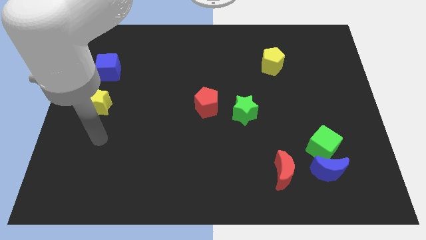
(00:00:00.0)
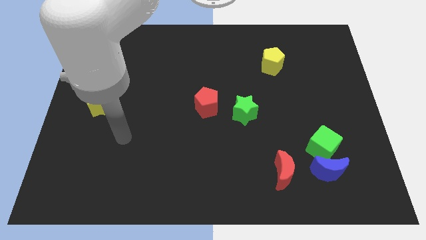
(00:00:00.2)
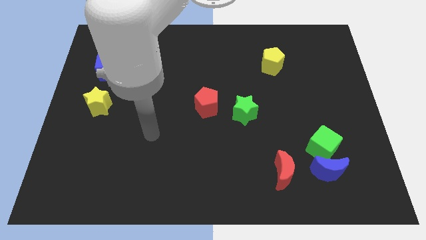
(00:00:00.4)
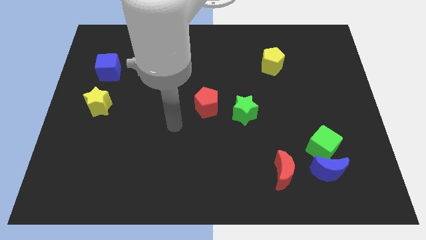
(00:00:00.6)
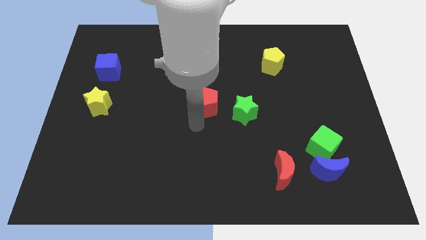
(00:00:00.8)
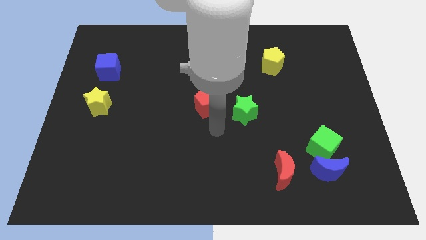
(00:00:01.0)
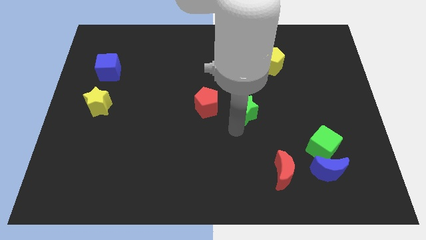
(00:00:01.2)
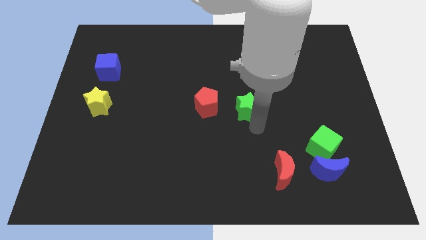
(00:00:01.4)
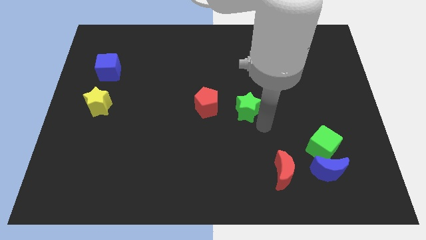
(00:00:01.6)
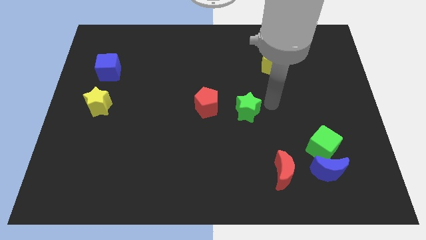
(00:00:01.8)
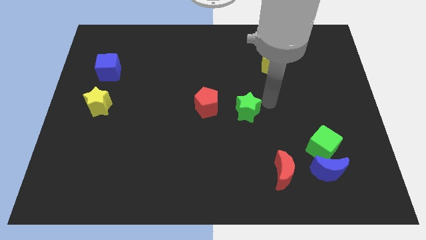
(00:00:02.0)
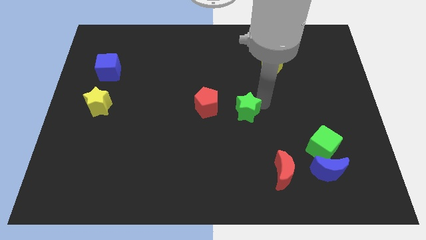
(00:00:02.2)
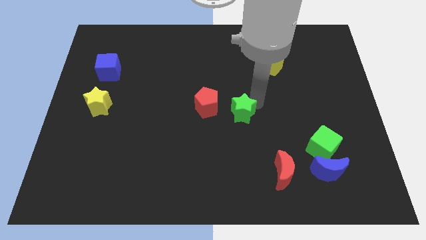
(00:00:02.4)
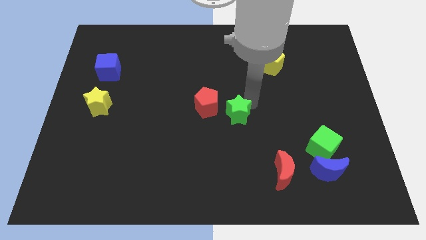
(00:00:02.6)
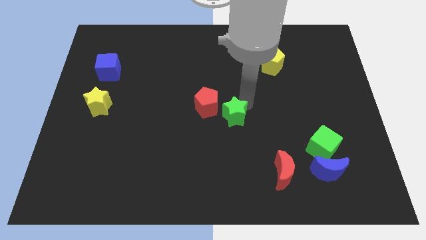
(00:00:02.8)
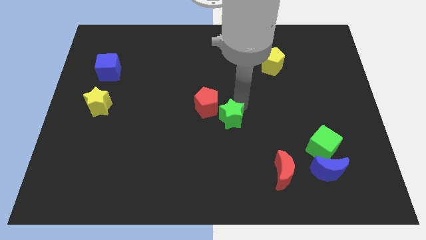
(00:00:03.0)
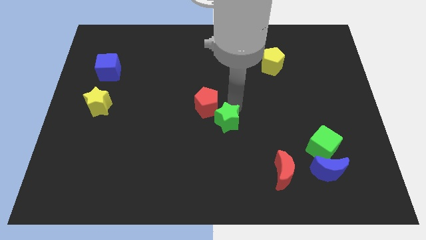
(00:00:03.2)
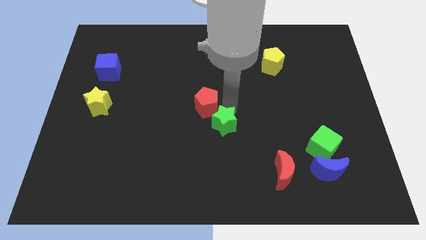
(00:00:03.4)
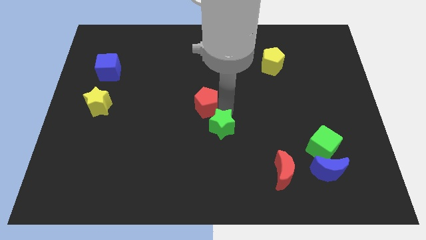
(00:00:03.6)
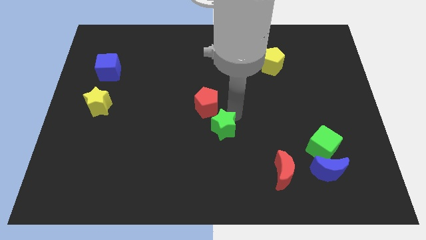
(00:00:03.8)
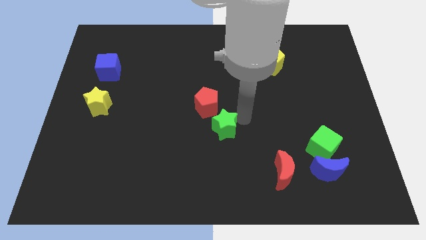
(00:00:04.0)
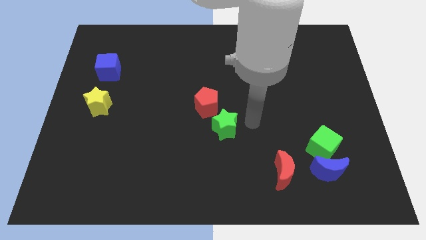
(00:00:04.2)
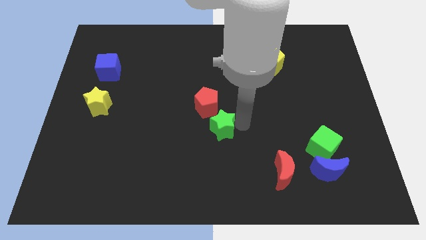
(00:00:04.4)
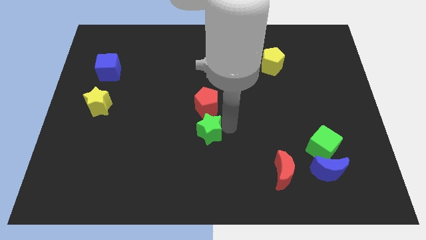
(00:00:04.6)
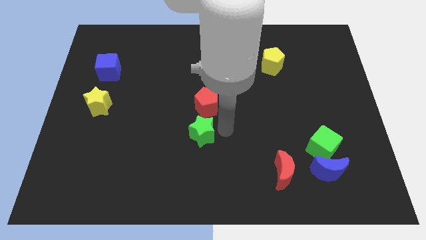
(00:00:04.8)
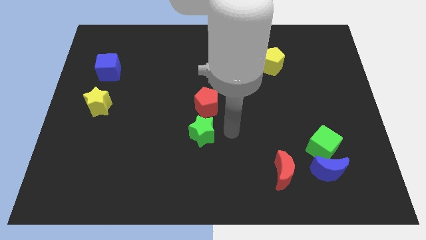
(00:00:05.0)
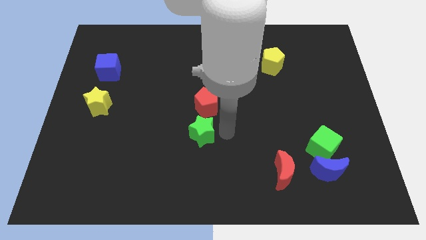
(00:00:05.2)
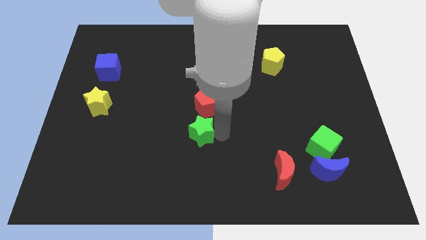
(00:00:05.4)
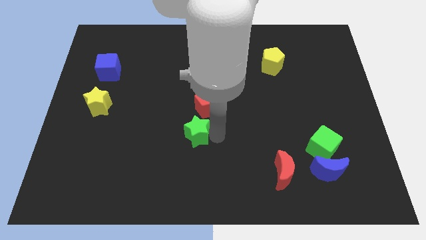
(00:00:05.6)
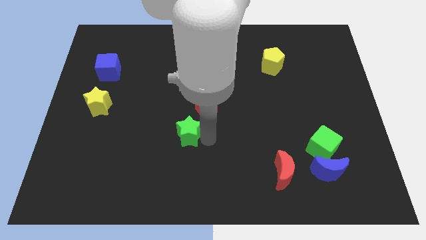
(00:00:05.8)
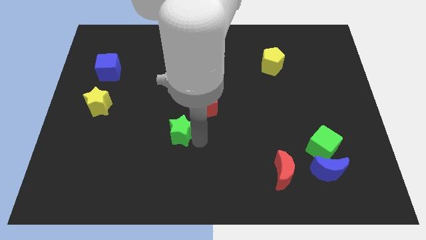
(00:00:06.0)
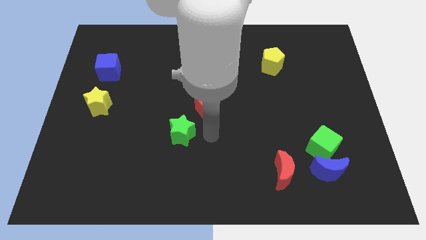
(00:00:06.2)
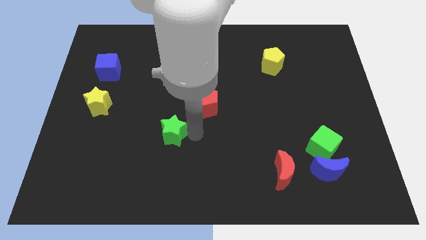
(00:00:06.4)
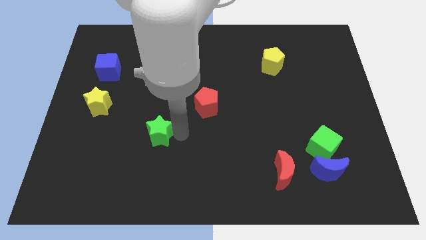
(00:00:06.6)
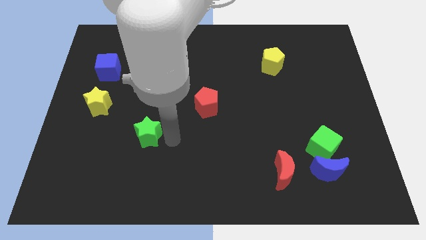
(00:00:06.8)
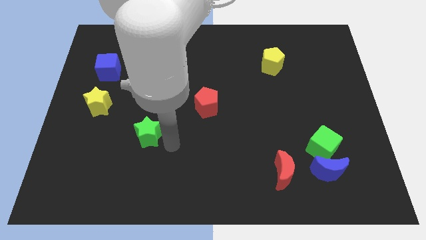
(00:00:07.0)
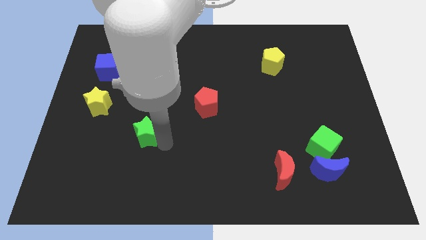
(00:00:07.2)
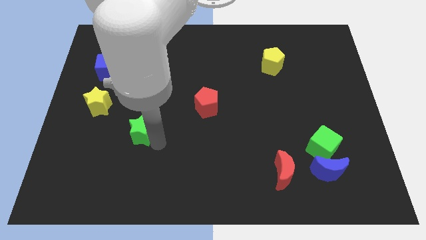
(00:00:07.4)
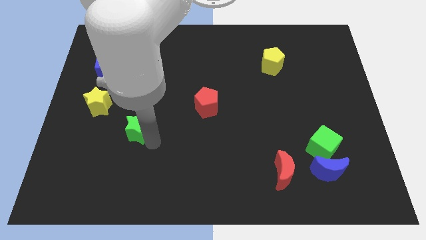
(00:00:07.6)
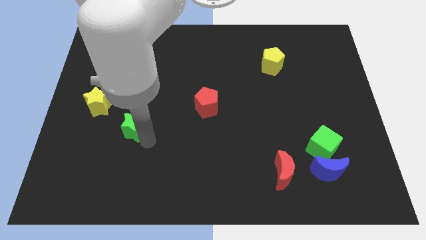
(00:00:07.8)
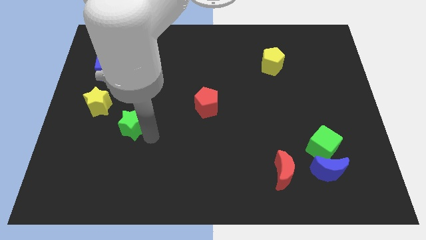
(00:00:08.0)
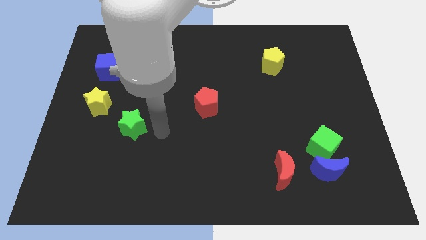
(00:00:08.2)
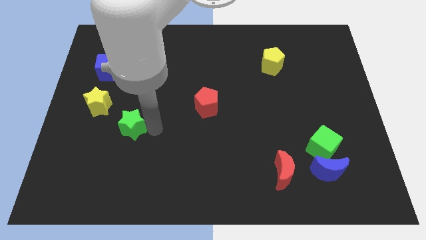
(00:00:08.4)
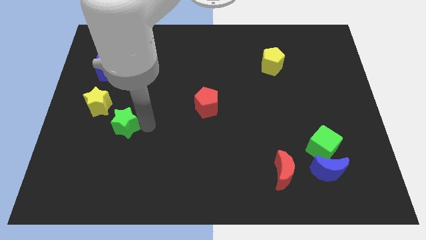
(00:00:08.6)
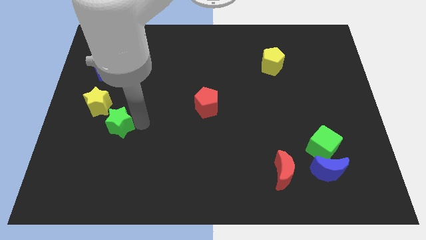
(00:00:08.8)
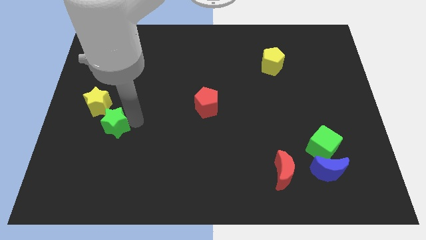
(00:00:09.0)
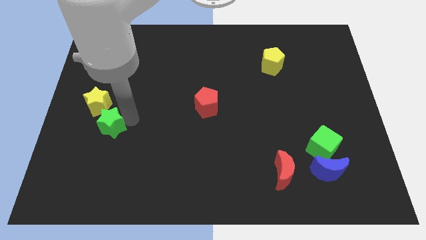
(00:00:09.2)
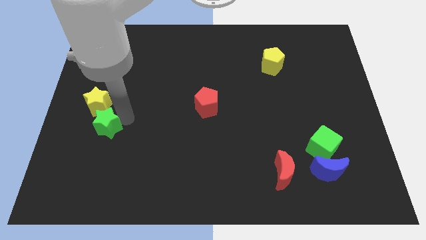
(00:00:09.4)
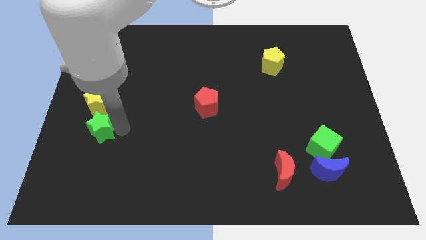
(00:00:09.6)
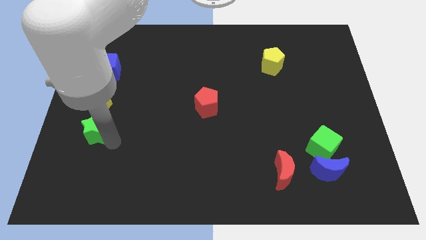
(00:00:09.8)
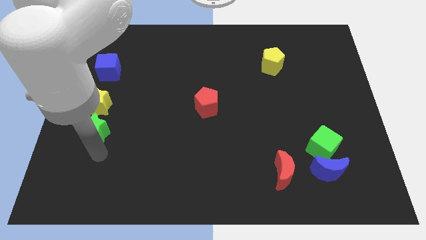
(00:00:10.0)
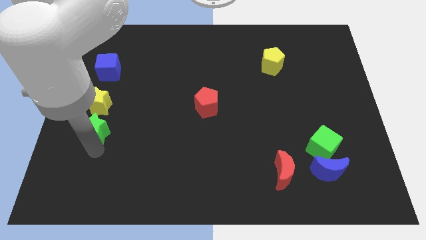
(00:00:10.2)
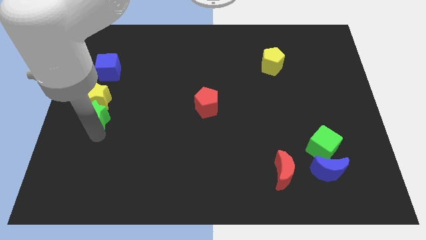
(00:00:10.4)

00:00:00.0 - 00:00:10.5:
push the green star below the blue cube

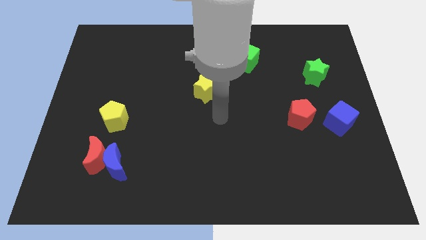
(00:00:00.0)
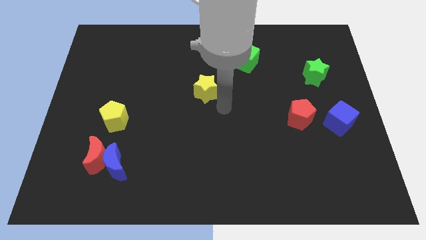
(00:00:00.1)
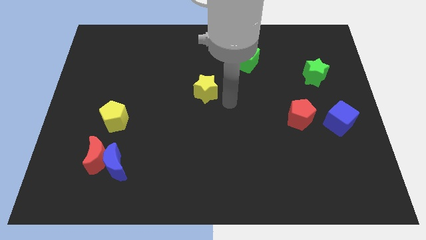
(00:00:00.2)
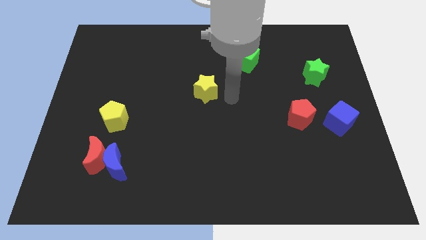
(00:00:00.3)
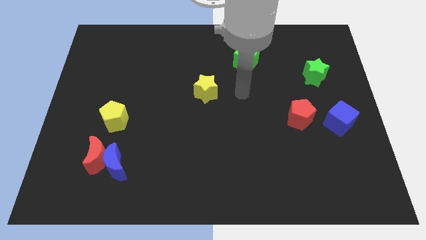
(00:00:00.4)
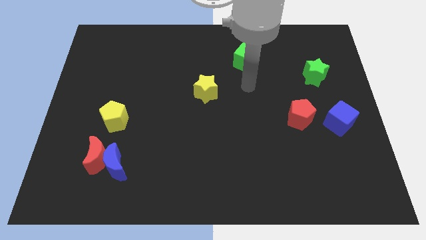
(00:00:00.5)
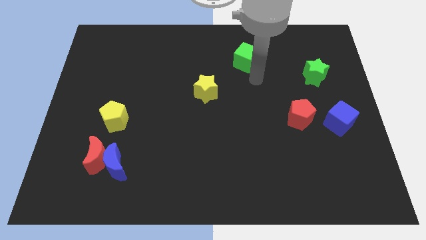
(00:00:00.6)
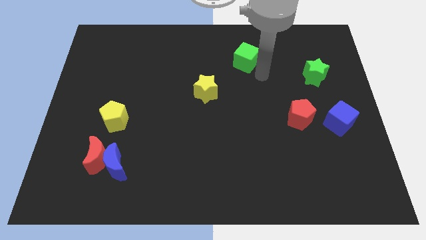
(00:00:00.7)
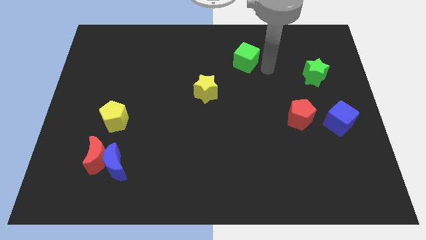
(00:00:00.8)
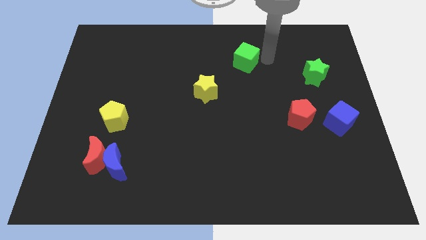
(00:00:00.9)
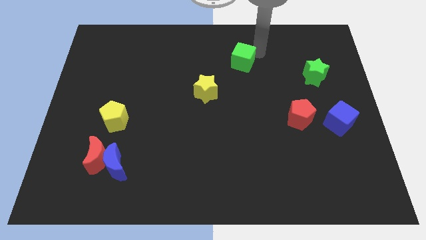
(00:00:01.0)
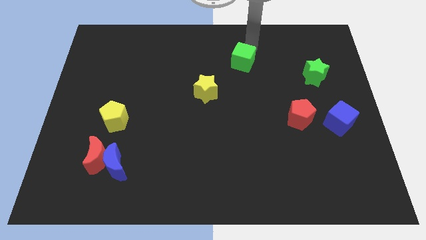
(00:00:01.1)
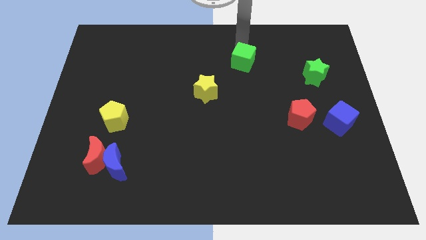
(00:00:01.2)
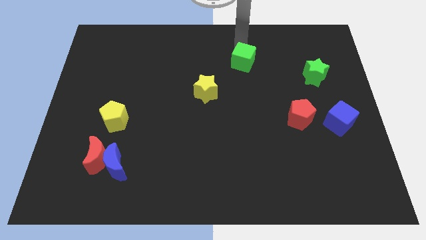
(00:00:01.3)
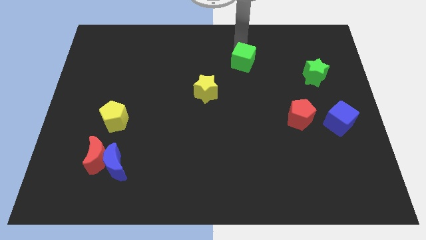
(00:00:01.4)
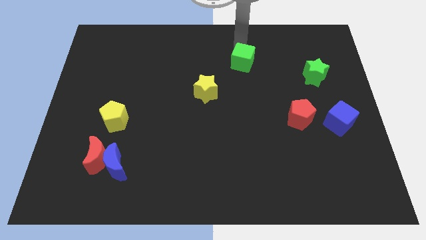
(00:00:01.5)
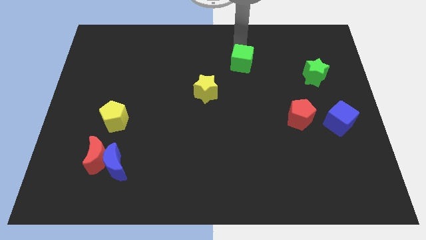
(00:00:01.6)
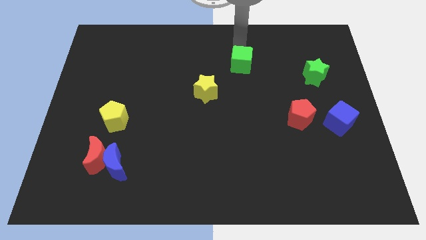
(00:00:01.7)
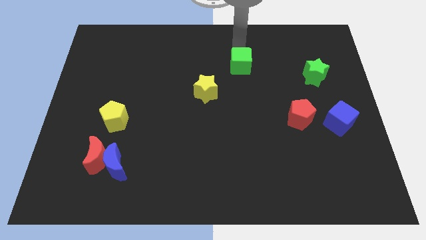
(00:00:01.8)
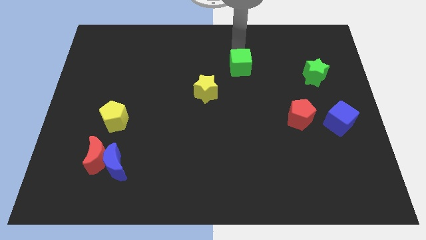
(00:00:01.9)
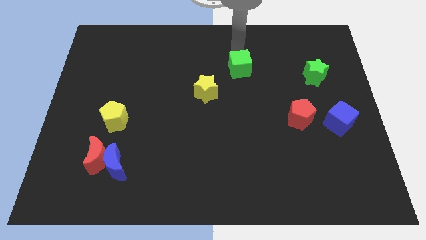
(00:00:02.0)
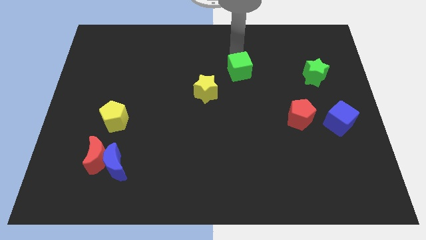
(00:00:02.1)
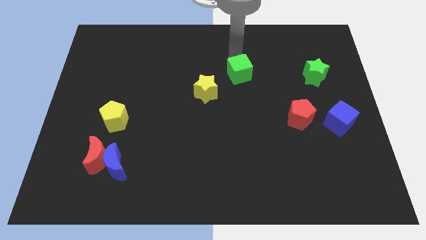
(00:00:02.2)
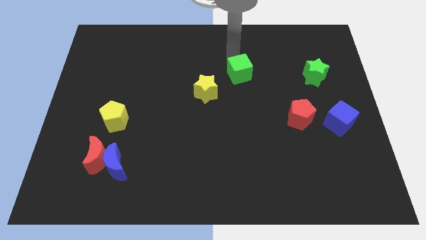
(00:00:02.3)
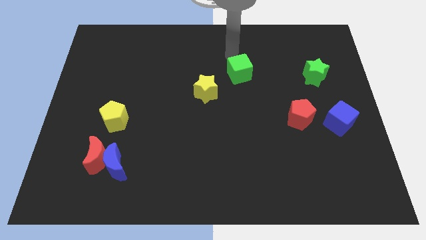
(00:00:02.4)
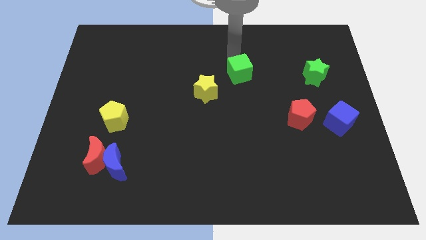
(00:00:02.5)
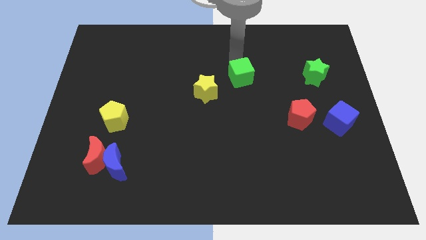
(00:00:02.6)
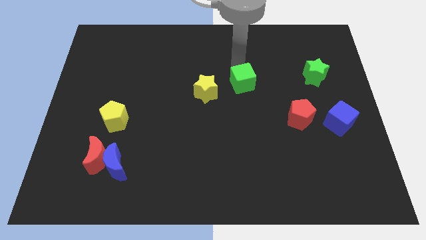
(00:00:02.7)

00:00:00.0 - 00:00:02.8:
move the green cube just right of the yellow star
